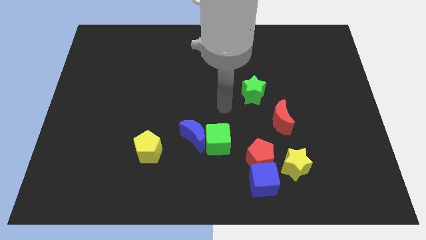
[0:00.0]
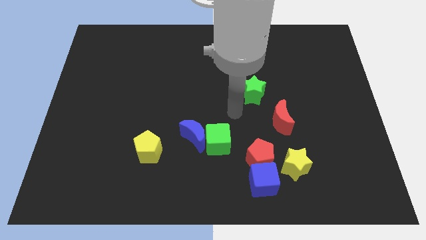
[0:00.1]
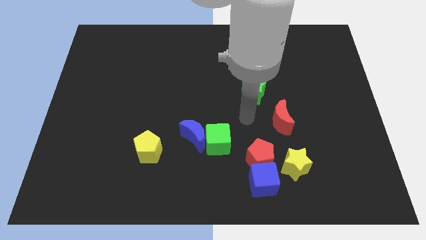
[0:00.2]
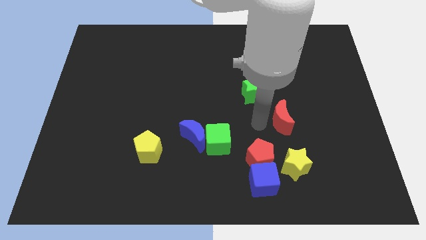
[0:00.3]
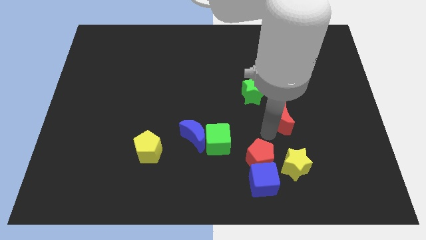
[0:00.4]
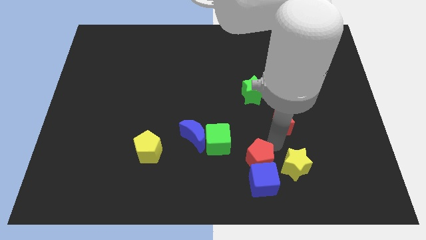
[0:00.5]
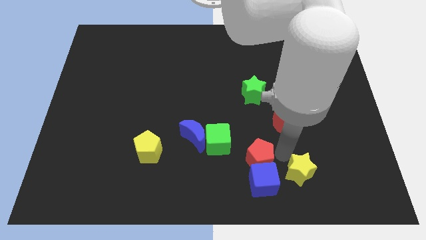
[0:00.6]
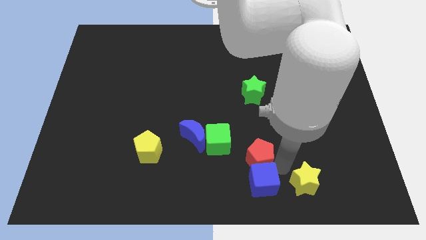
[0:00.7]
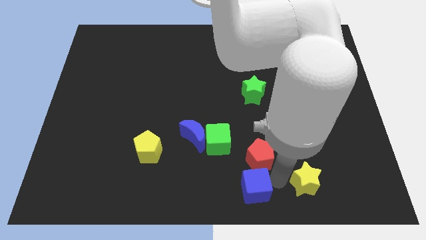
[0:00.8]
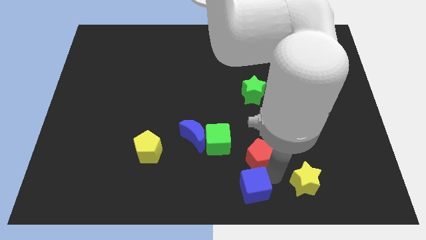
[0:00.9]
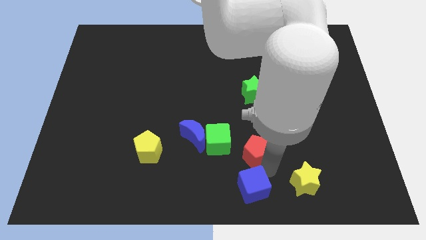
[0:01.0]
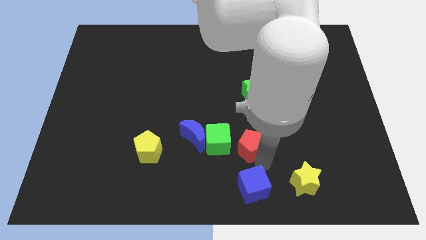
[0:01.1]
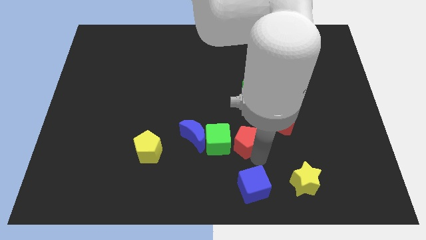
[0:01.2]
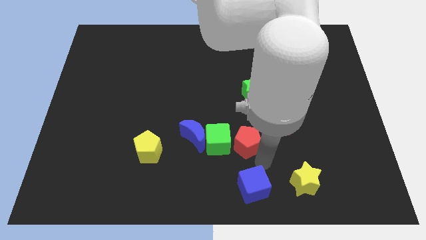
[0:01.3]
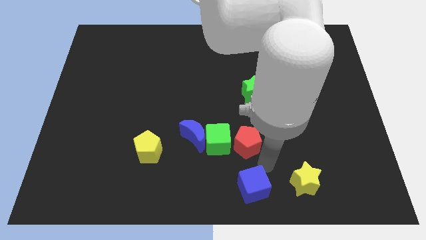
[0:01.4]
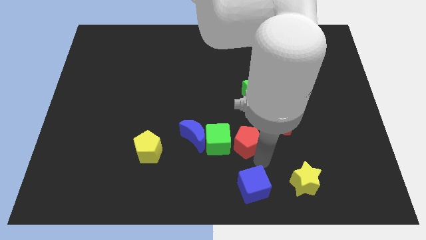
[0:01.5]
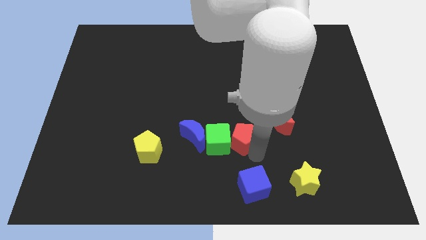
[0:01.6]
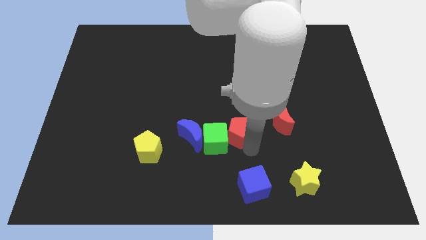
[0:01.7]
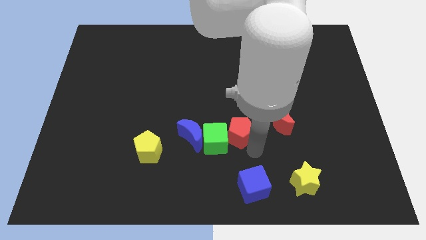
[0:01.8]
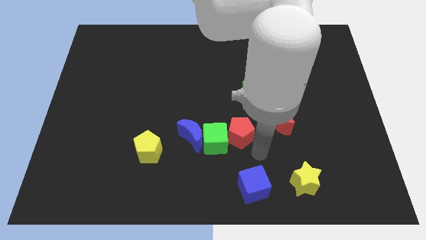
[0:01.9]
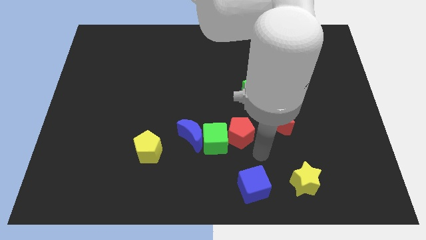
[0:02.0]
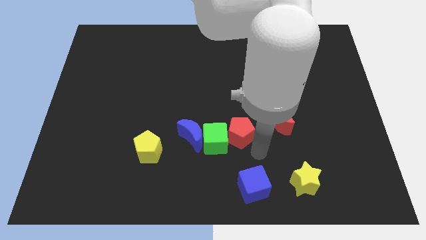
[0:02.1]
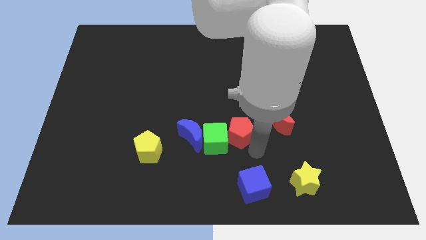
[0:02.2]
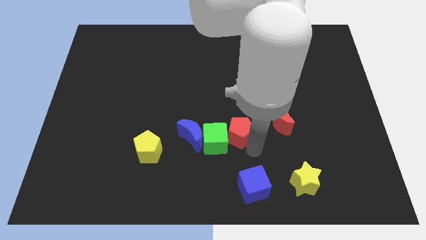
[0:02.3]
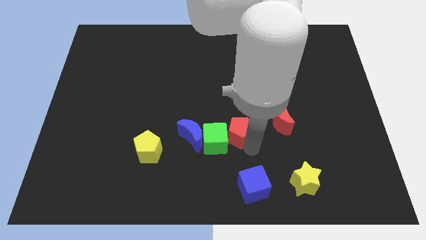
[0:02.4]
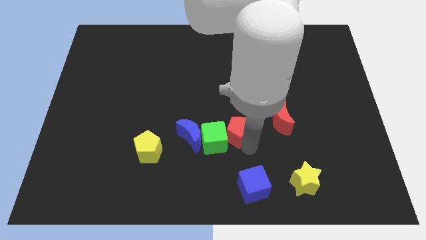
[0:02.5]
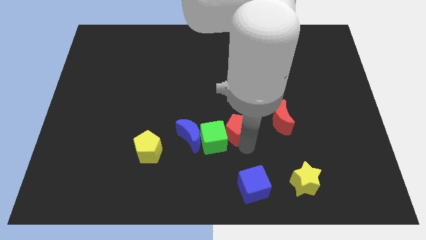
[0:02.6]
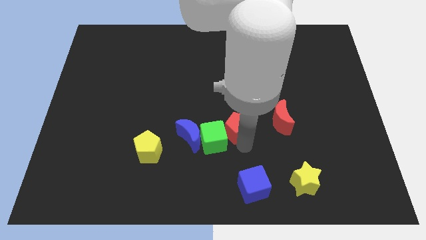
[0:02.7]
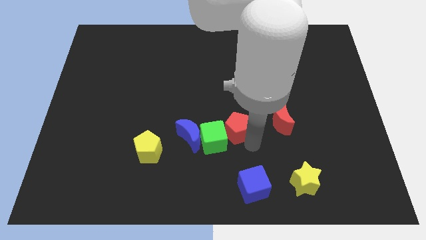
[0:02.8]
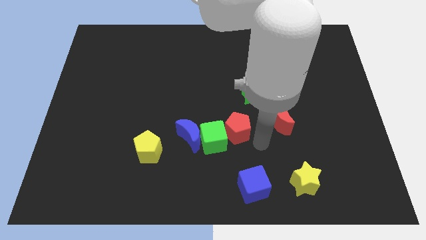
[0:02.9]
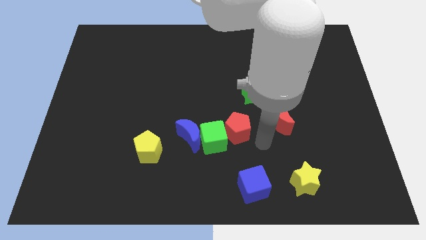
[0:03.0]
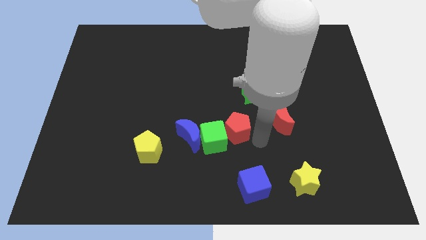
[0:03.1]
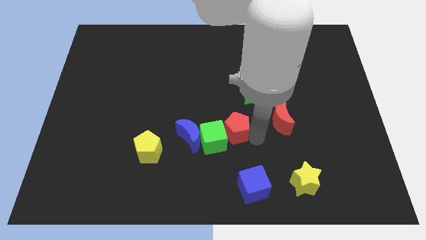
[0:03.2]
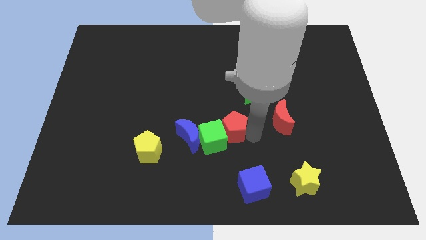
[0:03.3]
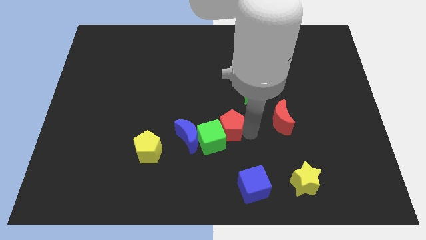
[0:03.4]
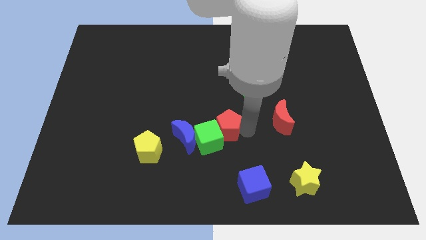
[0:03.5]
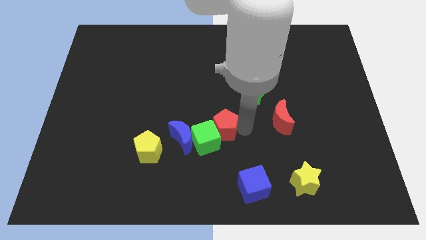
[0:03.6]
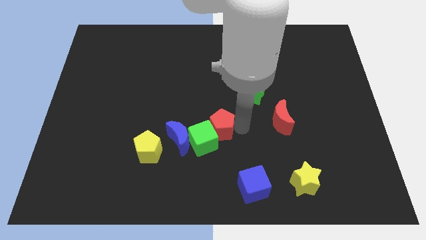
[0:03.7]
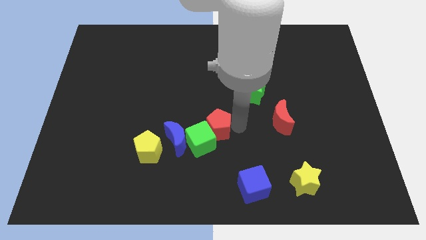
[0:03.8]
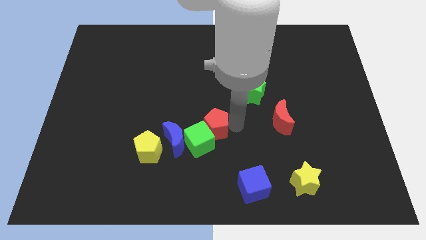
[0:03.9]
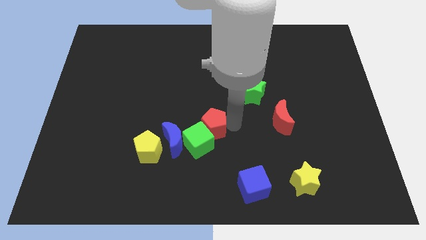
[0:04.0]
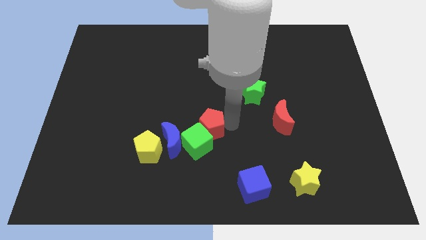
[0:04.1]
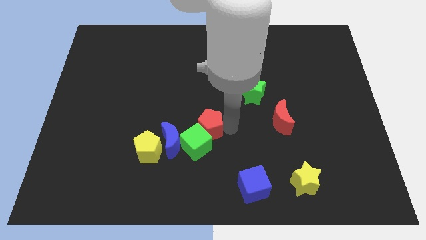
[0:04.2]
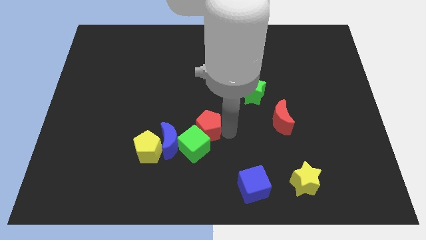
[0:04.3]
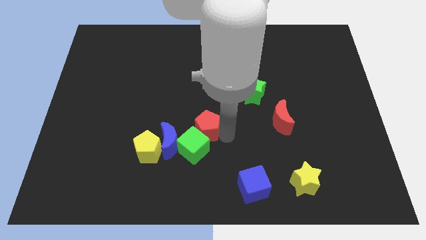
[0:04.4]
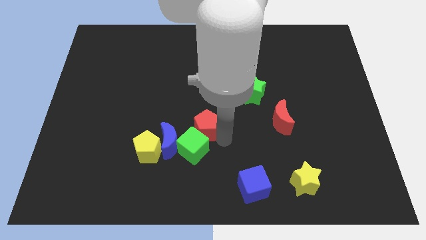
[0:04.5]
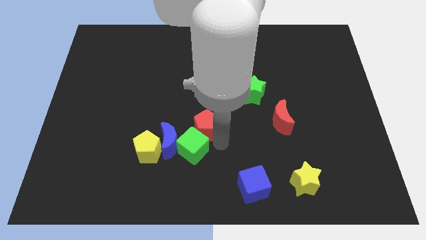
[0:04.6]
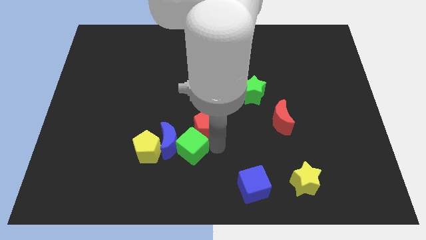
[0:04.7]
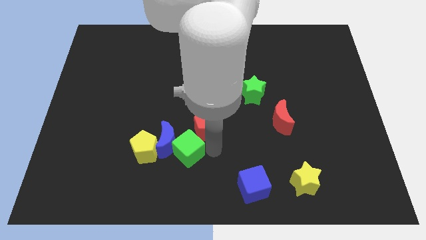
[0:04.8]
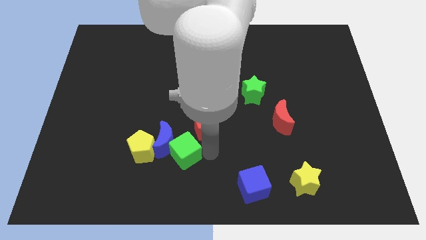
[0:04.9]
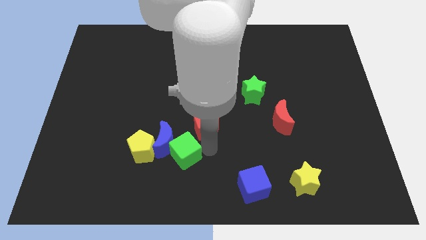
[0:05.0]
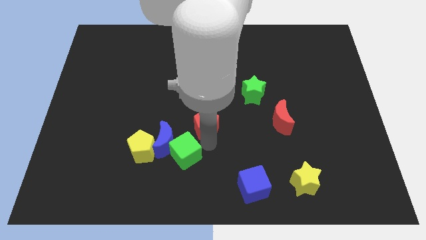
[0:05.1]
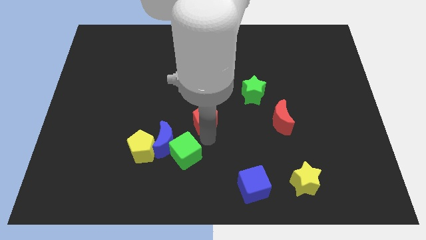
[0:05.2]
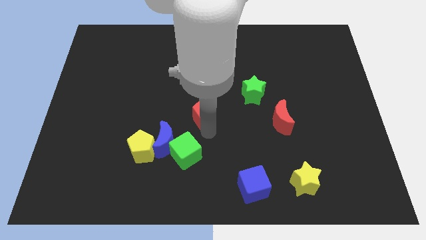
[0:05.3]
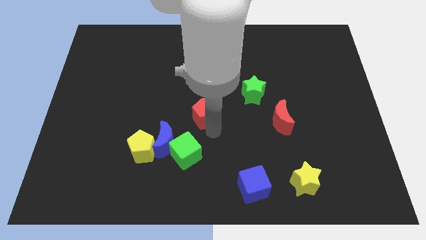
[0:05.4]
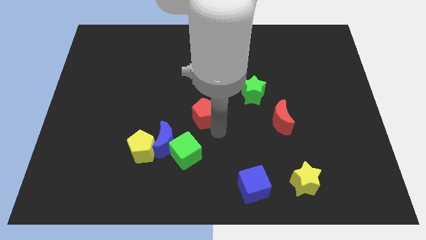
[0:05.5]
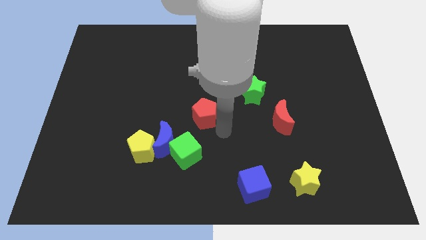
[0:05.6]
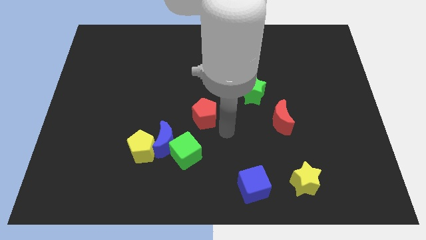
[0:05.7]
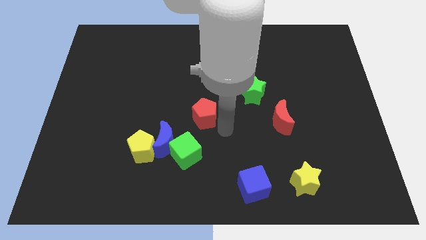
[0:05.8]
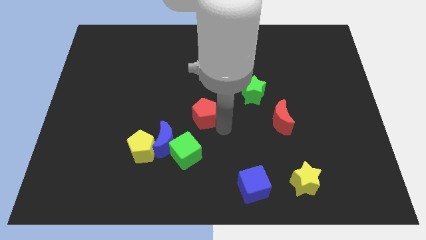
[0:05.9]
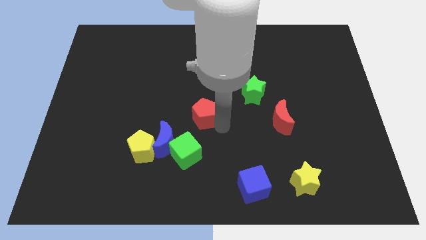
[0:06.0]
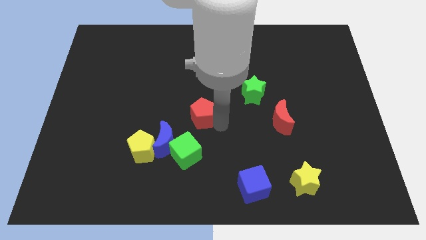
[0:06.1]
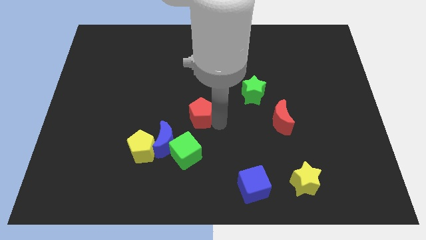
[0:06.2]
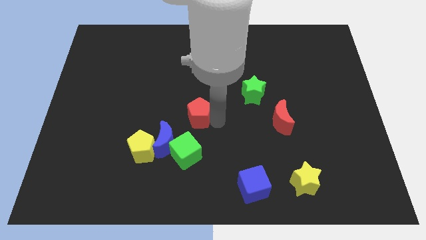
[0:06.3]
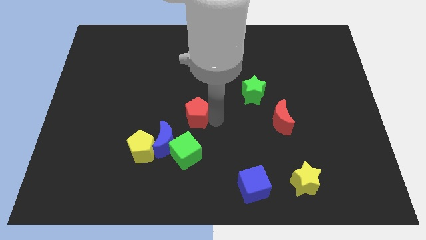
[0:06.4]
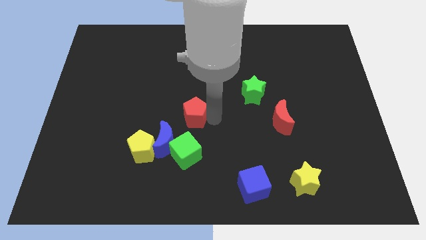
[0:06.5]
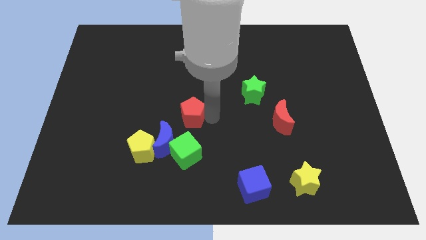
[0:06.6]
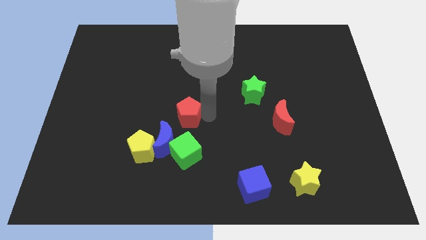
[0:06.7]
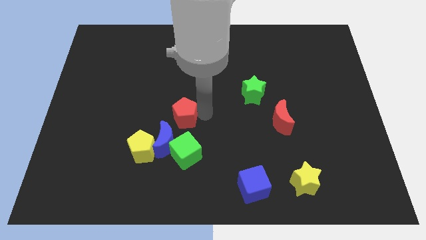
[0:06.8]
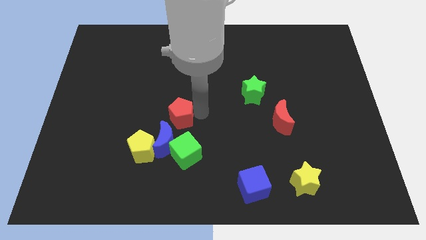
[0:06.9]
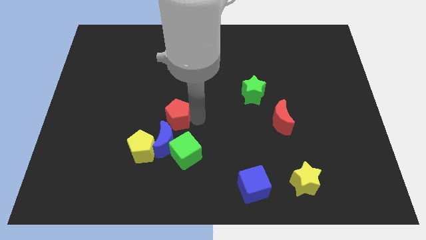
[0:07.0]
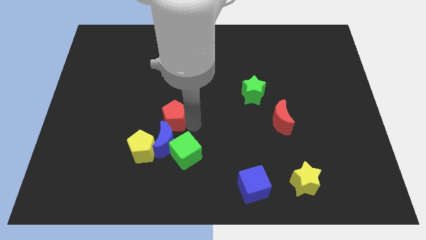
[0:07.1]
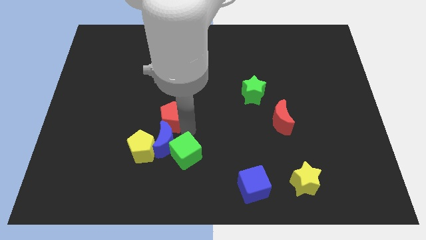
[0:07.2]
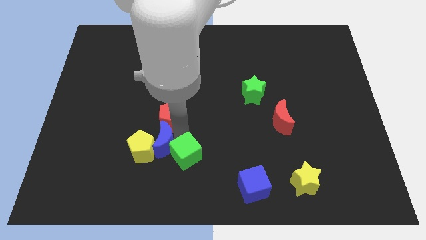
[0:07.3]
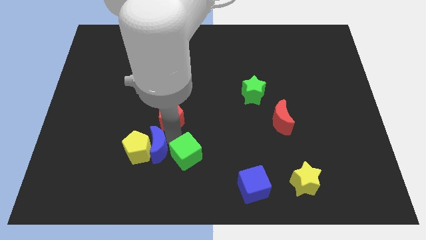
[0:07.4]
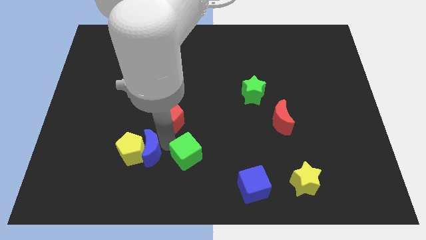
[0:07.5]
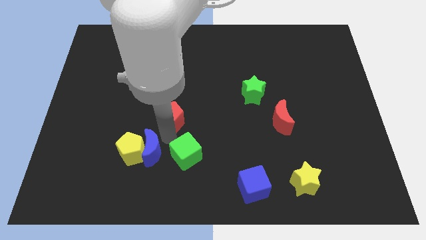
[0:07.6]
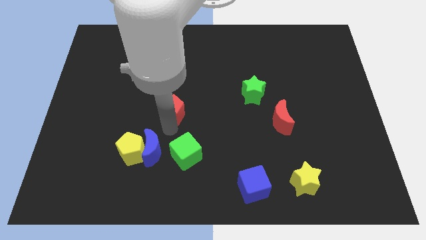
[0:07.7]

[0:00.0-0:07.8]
slide the red pentagon diagonally up and left

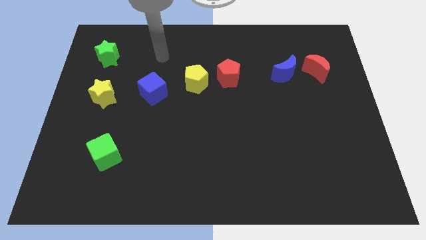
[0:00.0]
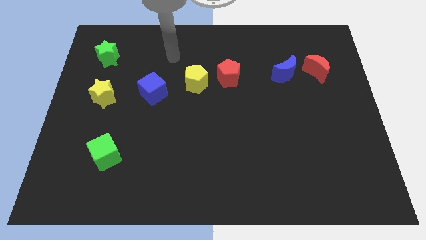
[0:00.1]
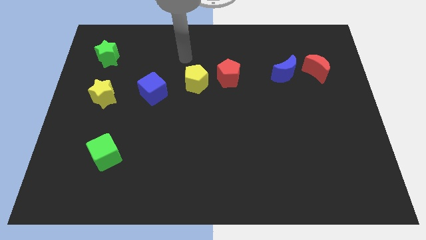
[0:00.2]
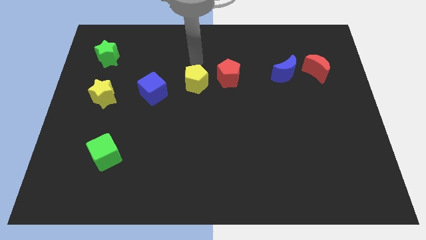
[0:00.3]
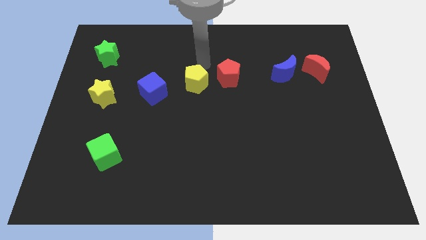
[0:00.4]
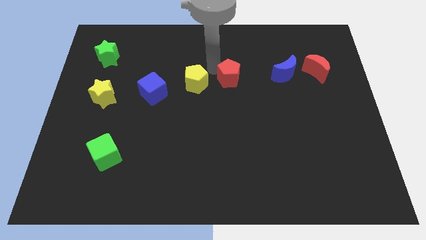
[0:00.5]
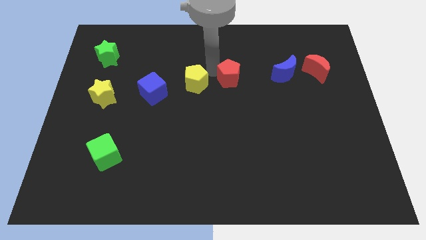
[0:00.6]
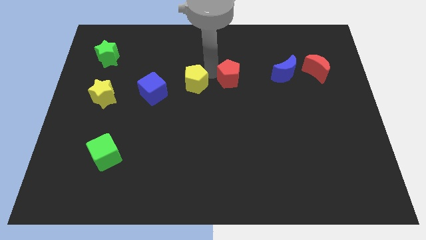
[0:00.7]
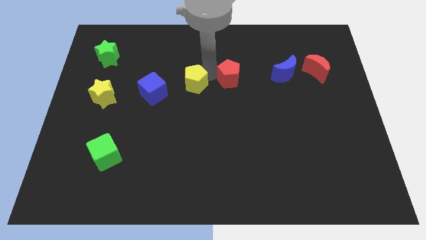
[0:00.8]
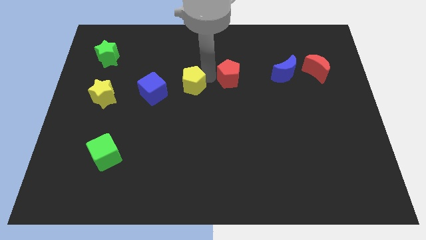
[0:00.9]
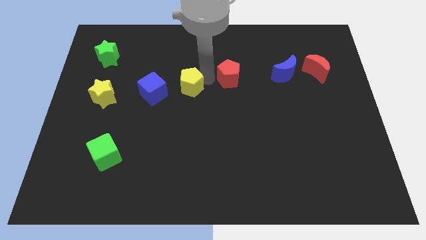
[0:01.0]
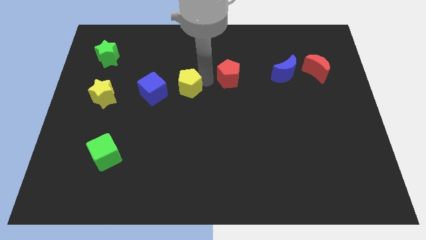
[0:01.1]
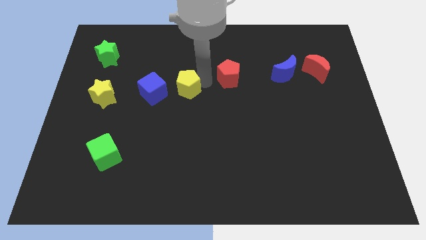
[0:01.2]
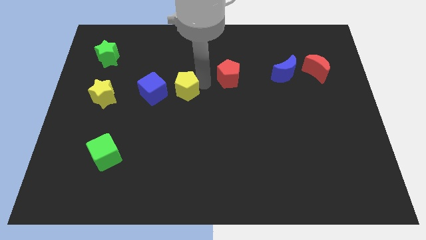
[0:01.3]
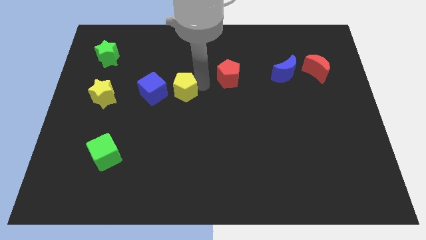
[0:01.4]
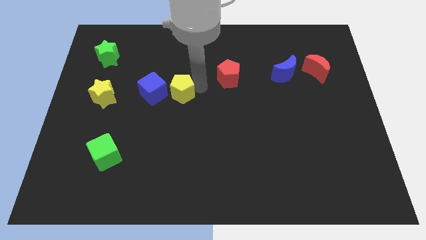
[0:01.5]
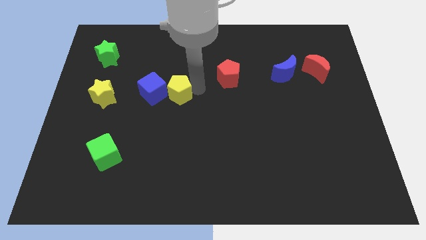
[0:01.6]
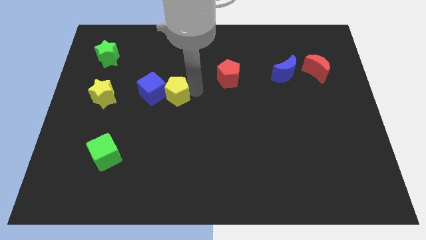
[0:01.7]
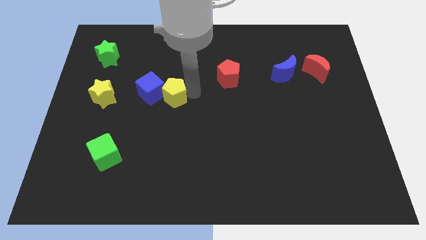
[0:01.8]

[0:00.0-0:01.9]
move the yellow pentagon a little diagonally down and to the left
